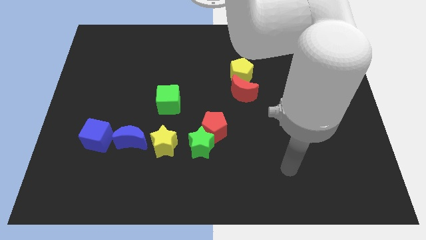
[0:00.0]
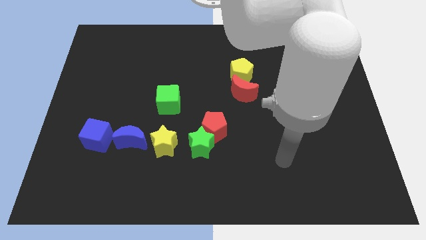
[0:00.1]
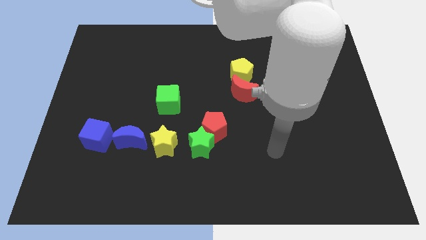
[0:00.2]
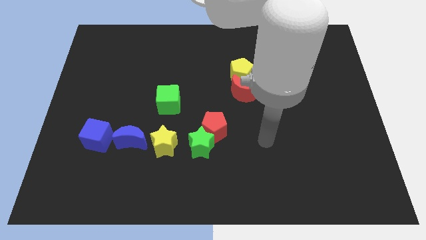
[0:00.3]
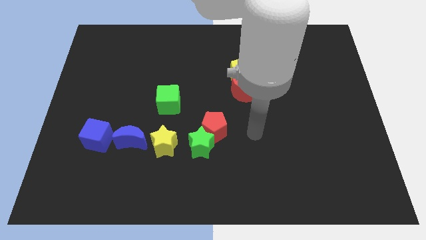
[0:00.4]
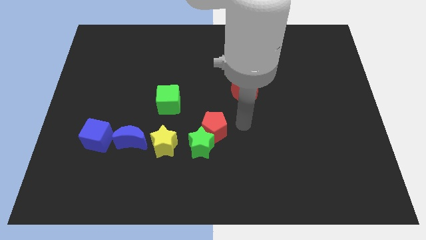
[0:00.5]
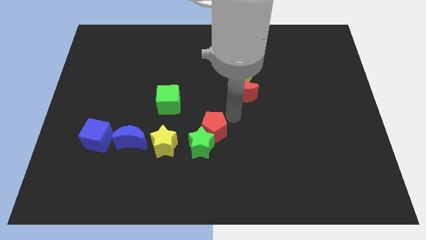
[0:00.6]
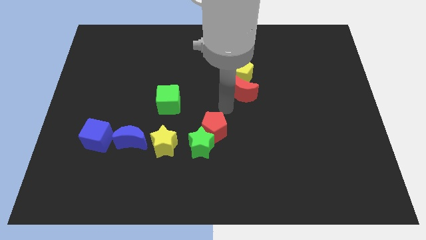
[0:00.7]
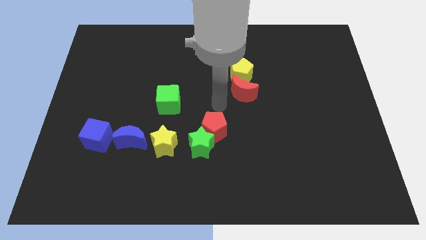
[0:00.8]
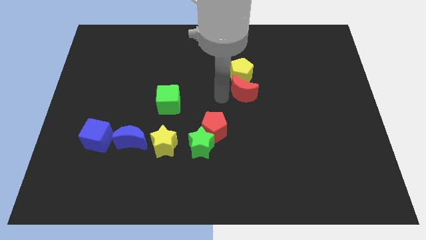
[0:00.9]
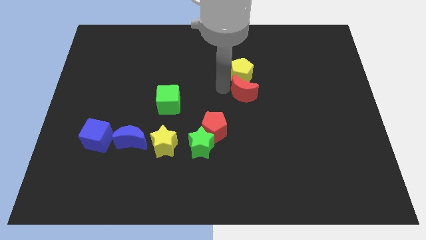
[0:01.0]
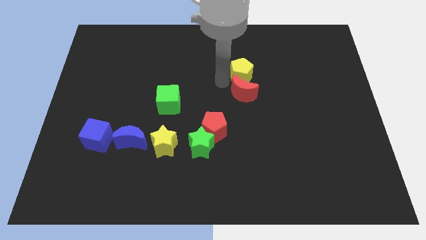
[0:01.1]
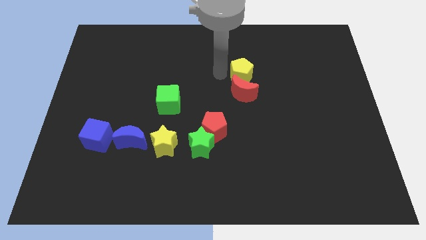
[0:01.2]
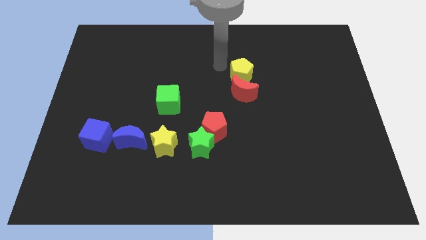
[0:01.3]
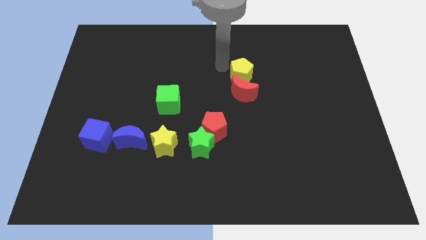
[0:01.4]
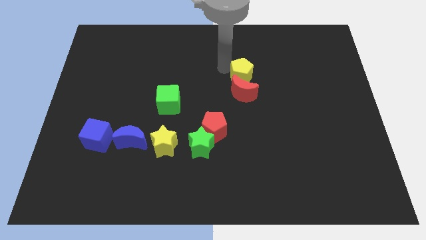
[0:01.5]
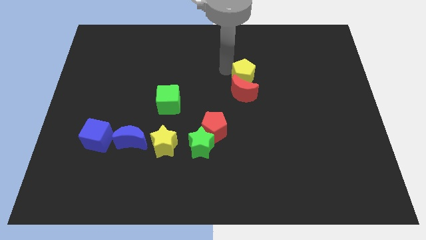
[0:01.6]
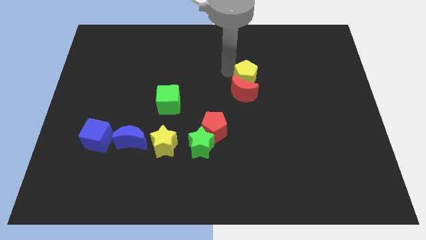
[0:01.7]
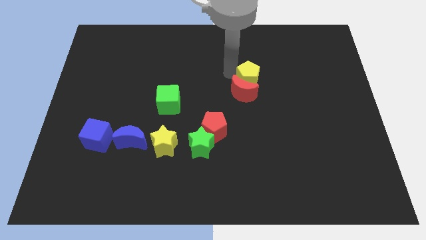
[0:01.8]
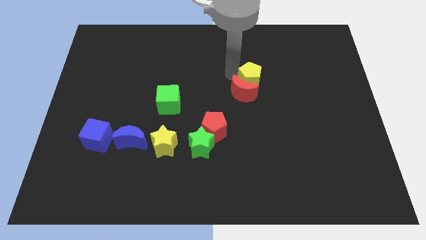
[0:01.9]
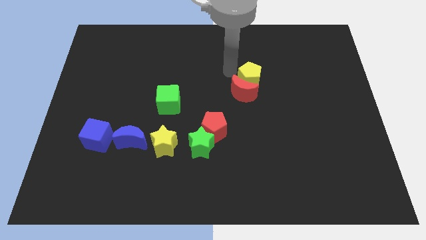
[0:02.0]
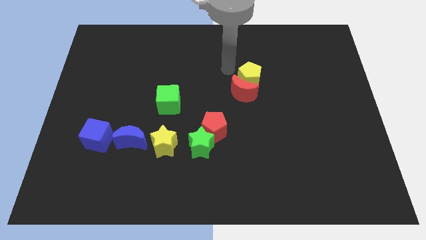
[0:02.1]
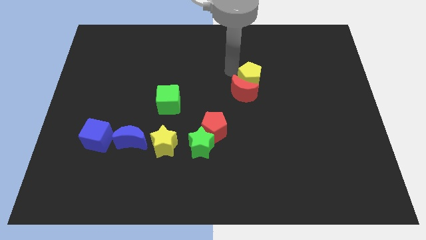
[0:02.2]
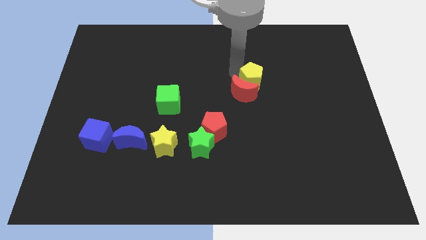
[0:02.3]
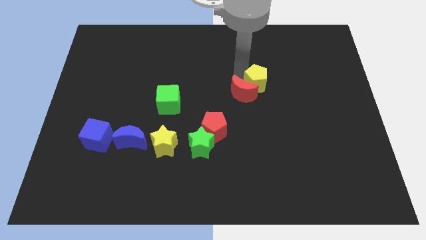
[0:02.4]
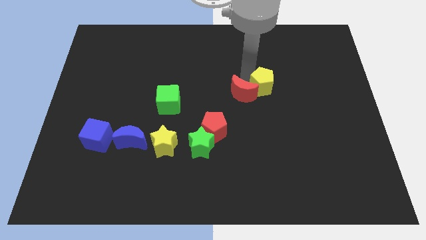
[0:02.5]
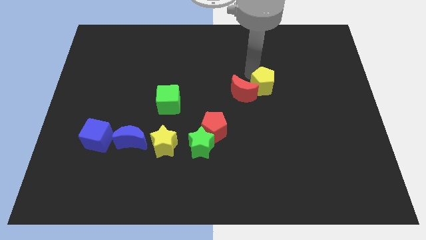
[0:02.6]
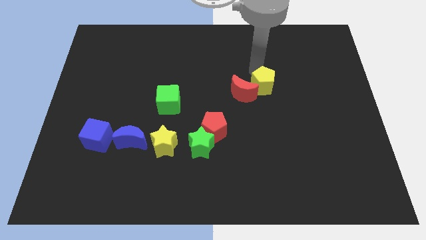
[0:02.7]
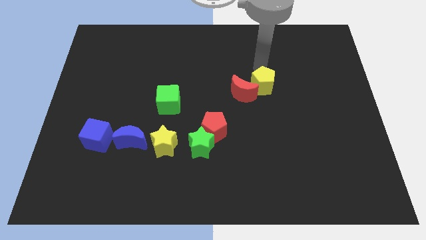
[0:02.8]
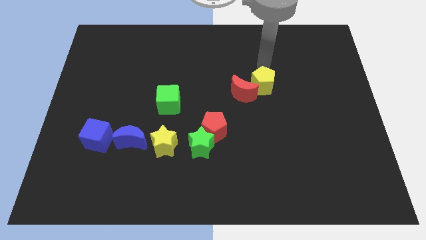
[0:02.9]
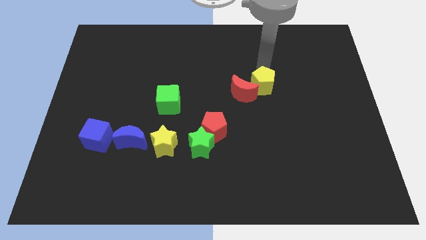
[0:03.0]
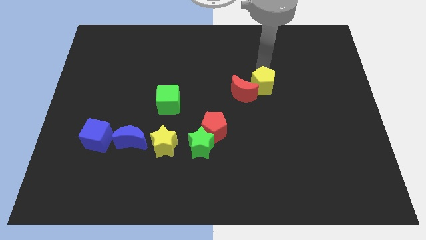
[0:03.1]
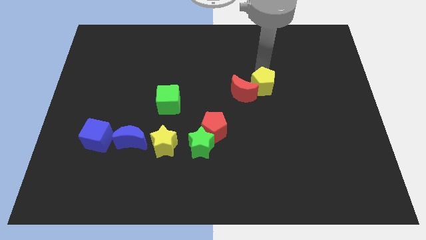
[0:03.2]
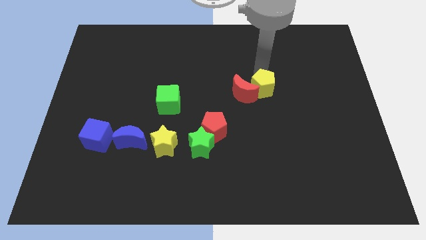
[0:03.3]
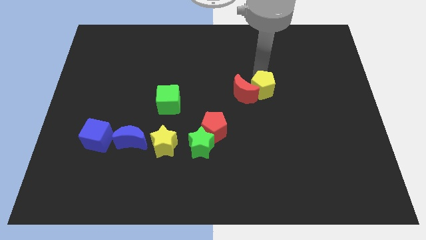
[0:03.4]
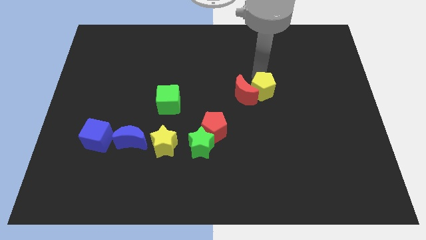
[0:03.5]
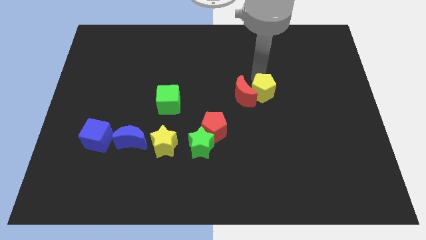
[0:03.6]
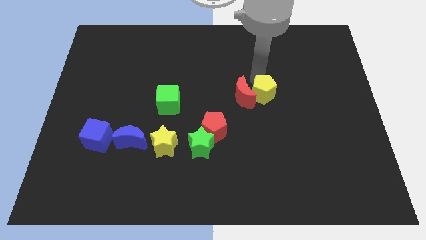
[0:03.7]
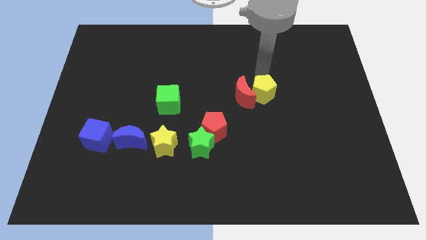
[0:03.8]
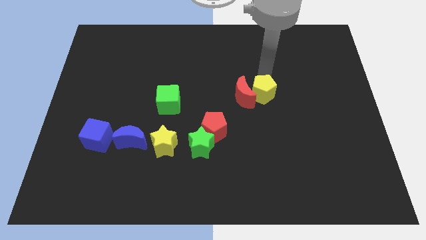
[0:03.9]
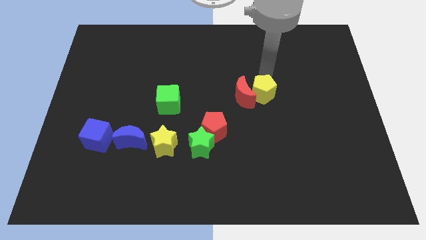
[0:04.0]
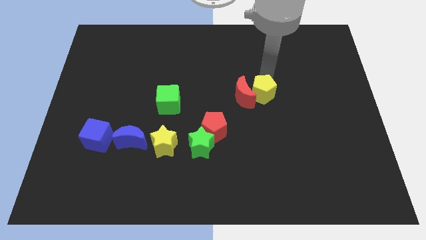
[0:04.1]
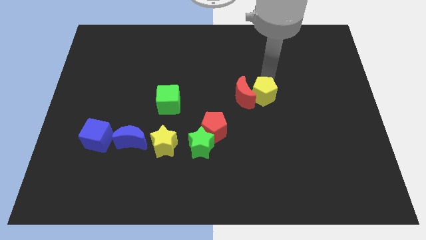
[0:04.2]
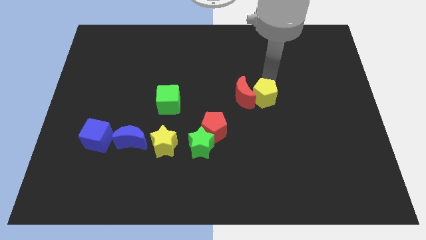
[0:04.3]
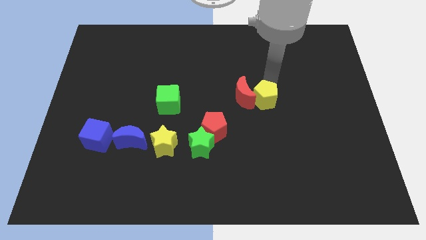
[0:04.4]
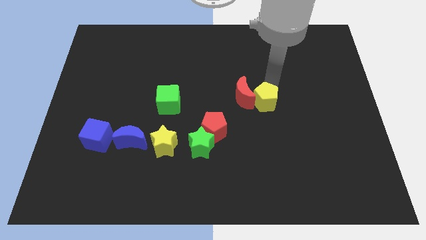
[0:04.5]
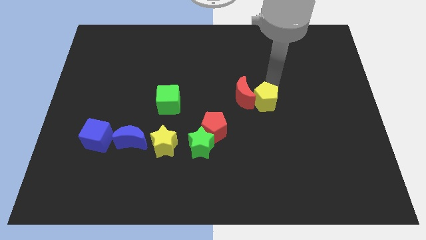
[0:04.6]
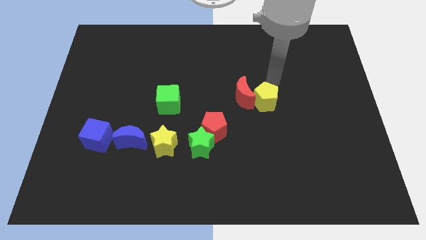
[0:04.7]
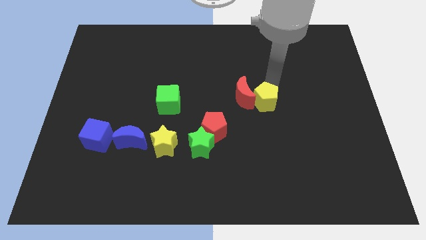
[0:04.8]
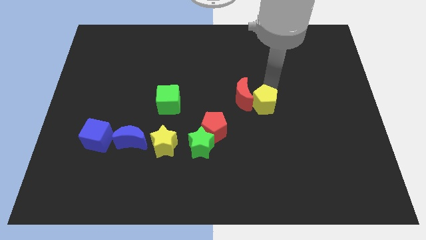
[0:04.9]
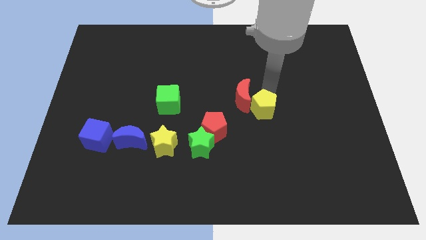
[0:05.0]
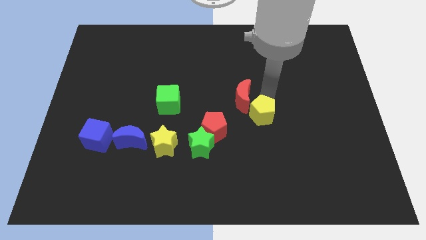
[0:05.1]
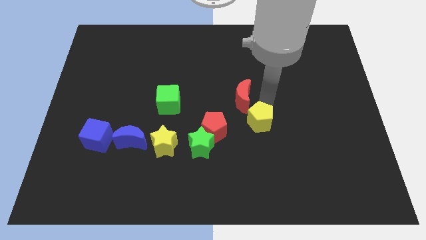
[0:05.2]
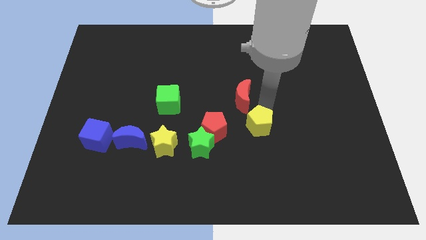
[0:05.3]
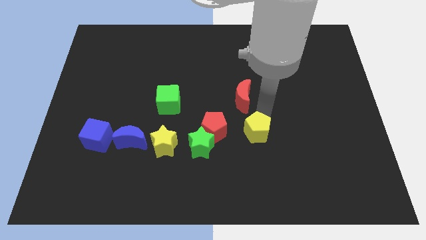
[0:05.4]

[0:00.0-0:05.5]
slide the yellow pentagon to the right side of the green star

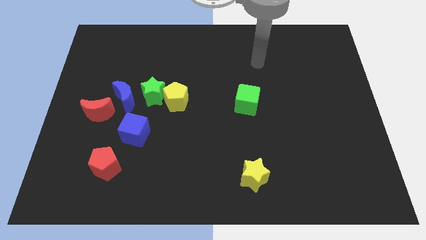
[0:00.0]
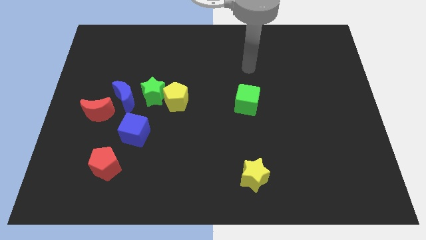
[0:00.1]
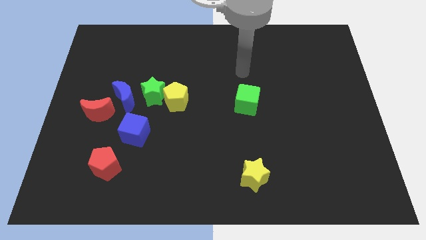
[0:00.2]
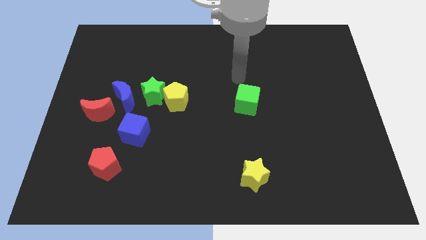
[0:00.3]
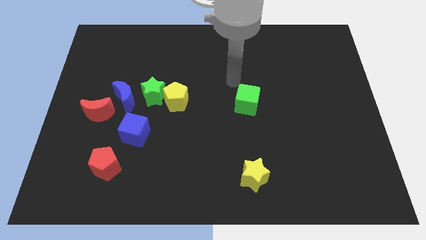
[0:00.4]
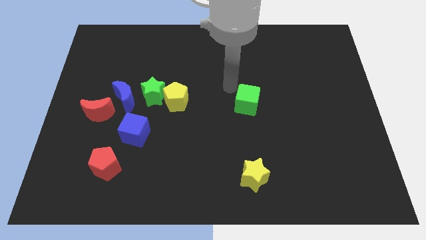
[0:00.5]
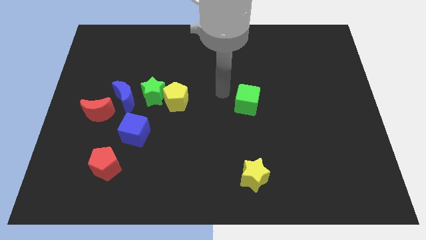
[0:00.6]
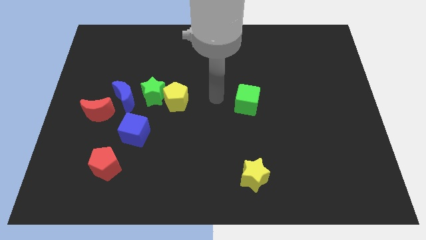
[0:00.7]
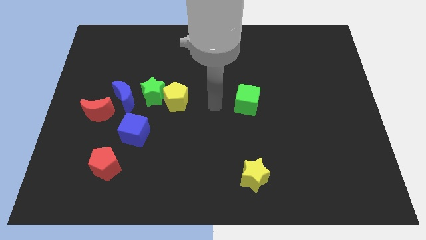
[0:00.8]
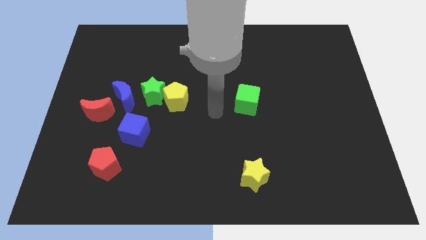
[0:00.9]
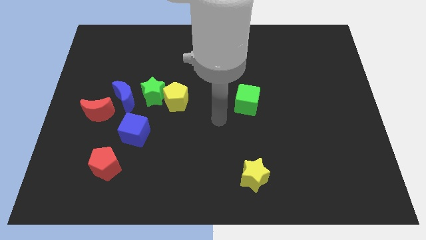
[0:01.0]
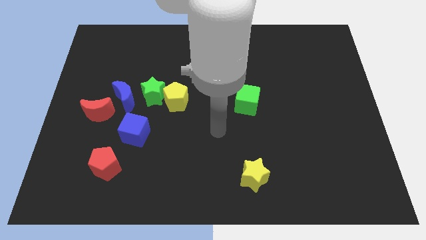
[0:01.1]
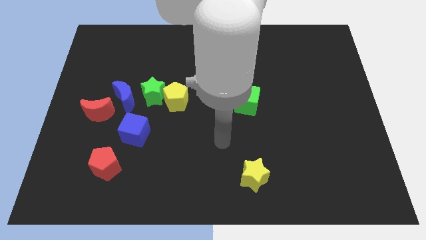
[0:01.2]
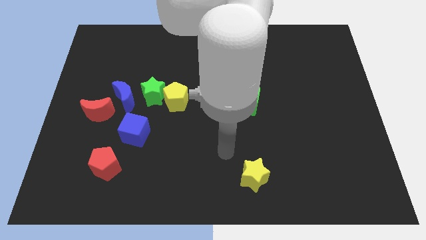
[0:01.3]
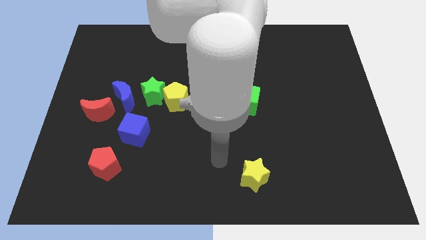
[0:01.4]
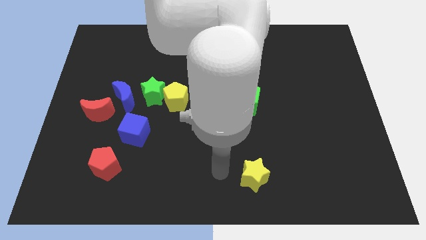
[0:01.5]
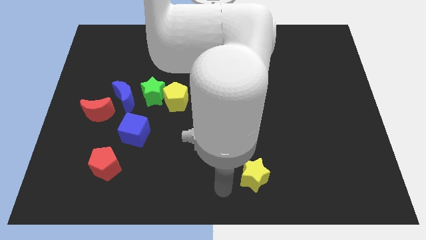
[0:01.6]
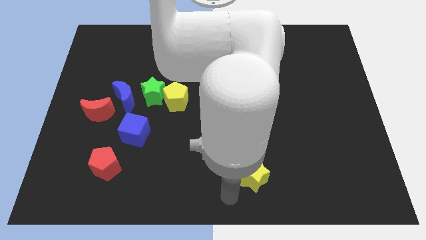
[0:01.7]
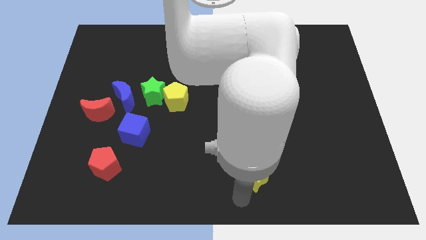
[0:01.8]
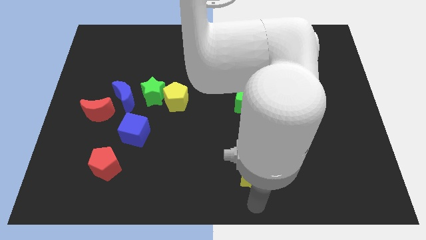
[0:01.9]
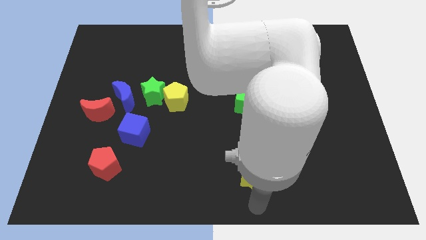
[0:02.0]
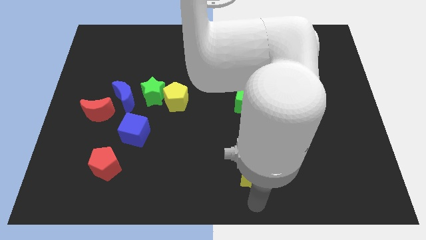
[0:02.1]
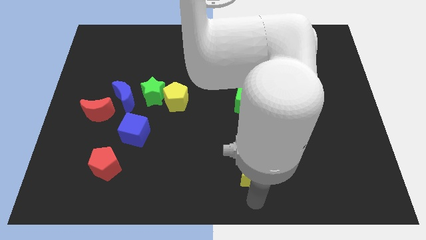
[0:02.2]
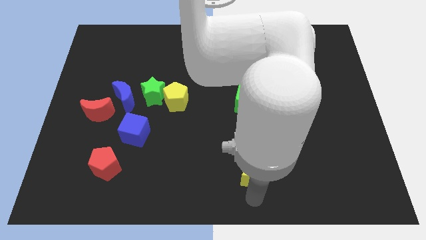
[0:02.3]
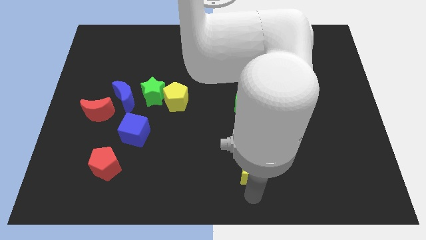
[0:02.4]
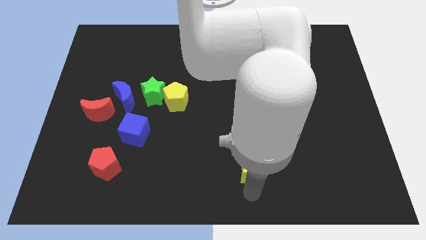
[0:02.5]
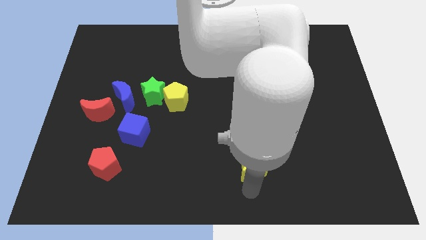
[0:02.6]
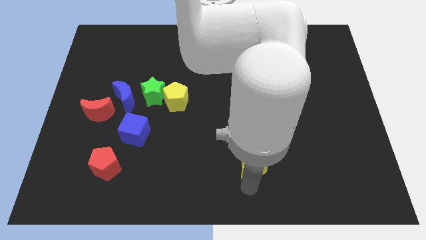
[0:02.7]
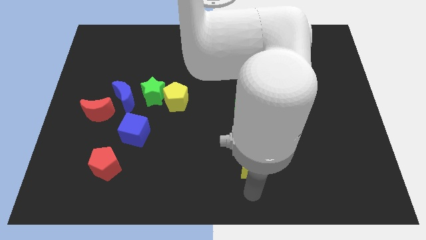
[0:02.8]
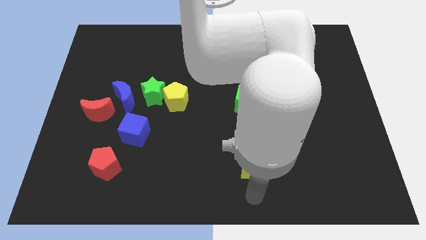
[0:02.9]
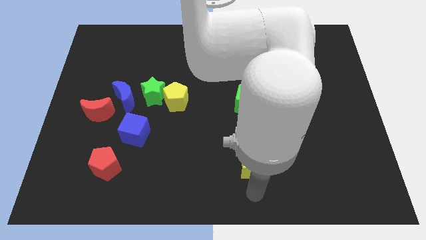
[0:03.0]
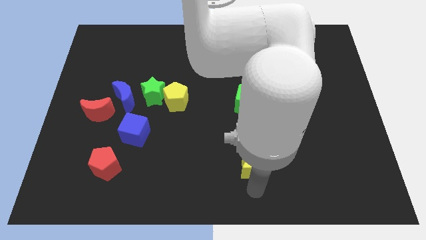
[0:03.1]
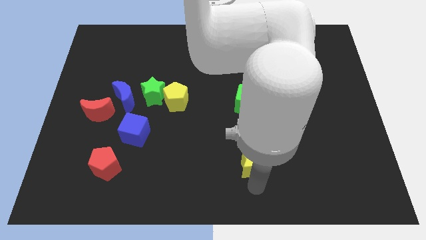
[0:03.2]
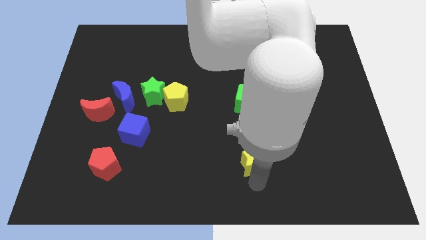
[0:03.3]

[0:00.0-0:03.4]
slide the yellow star to the bottom of the green cube
